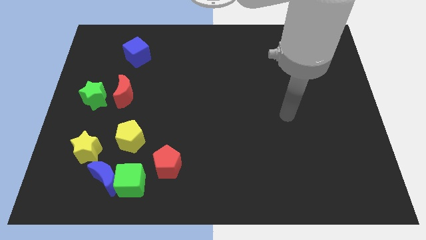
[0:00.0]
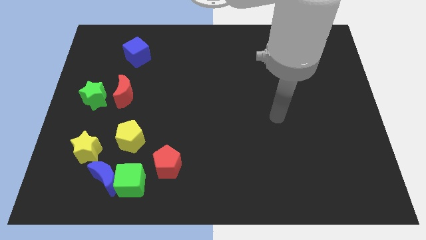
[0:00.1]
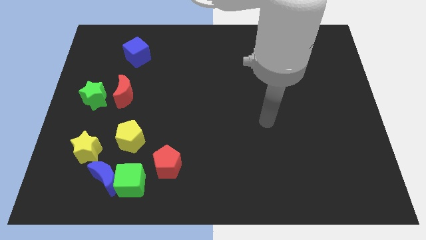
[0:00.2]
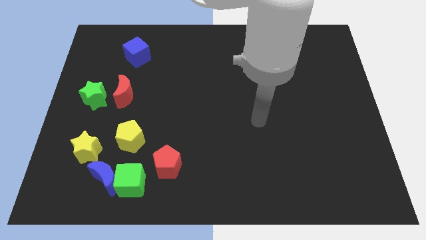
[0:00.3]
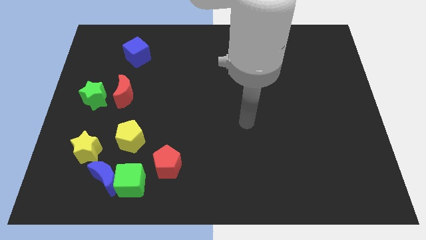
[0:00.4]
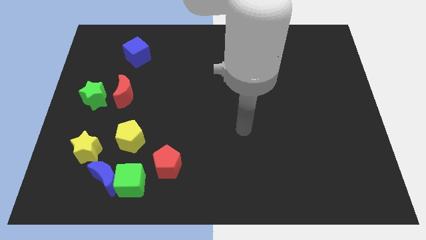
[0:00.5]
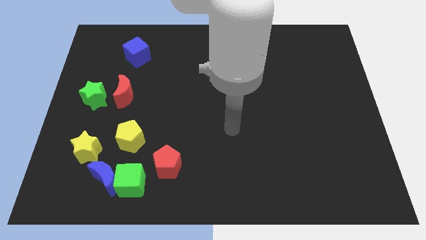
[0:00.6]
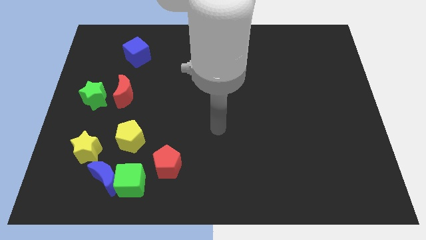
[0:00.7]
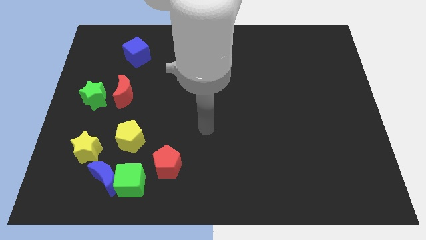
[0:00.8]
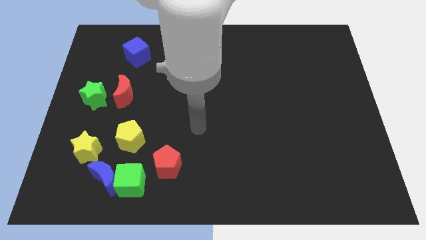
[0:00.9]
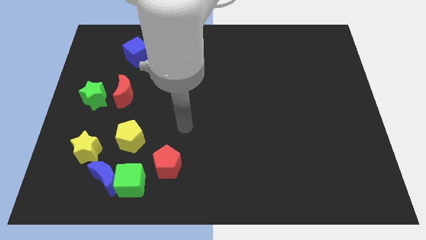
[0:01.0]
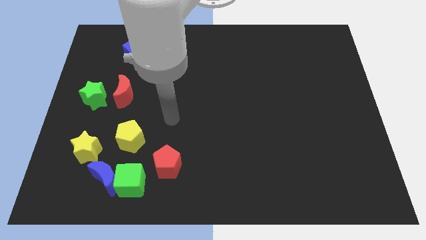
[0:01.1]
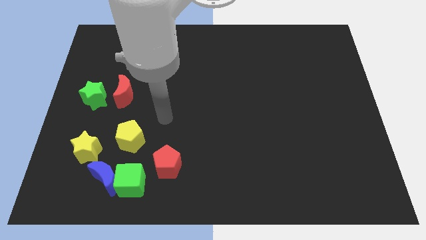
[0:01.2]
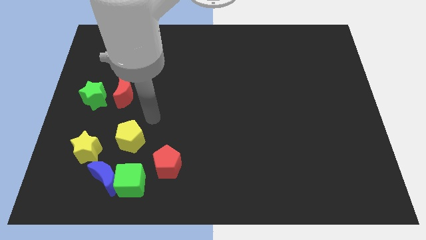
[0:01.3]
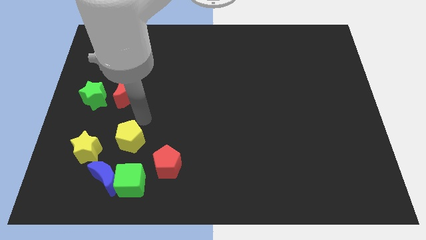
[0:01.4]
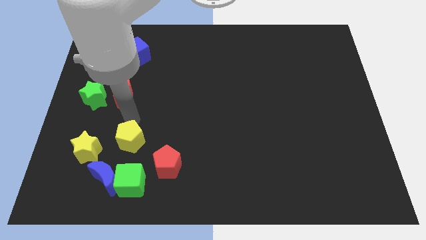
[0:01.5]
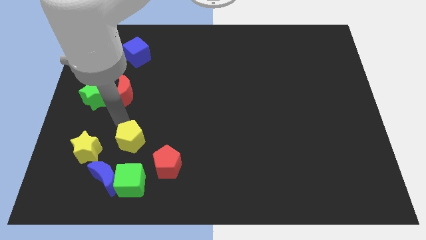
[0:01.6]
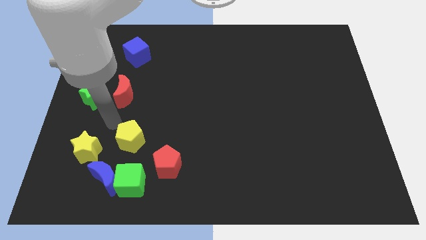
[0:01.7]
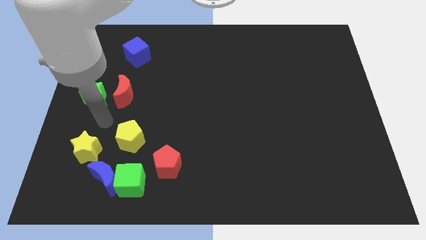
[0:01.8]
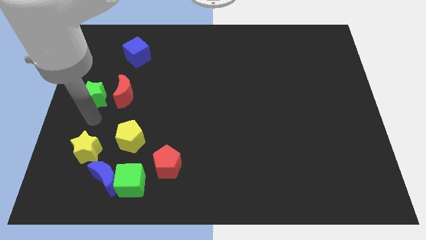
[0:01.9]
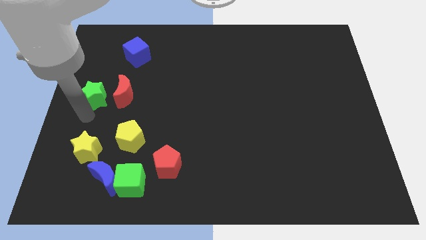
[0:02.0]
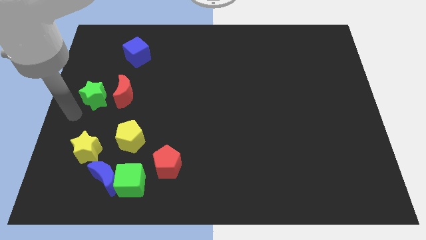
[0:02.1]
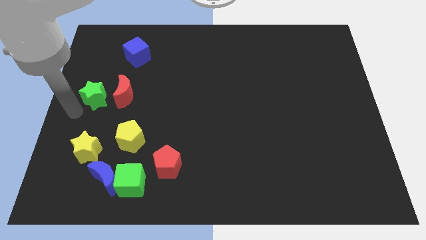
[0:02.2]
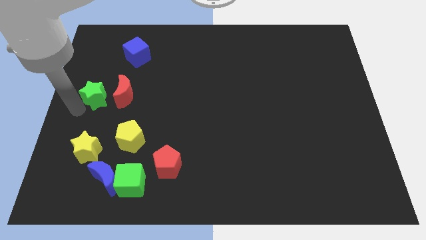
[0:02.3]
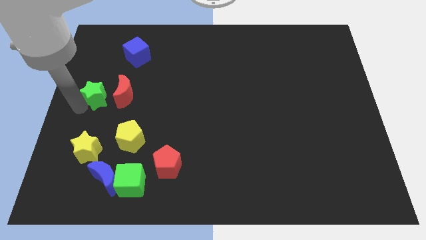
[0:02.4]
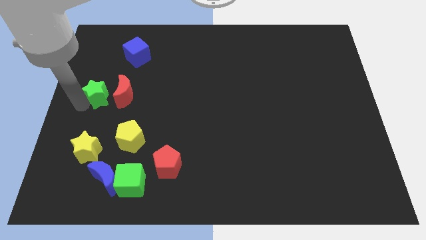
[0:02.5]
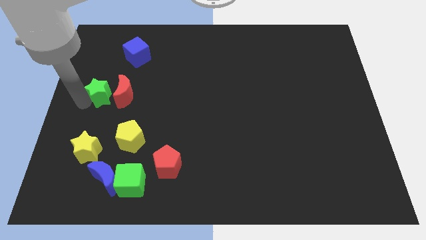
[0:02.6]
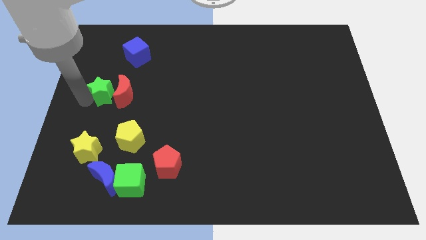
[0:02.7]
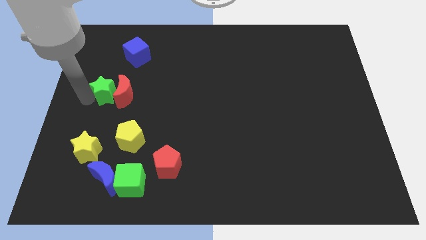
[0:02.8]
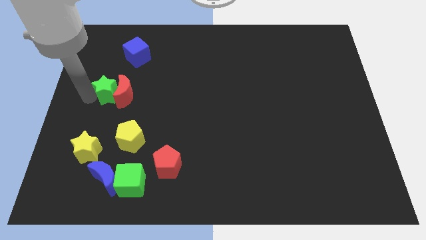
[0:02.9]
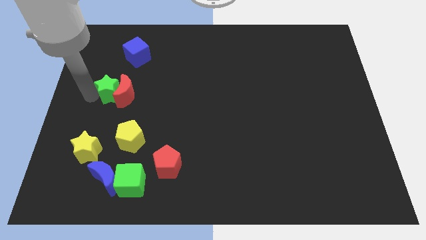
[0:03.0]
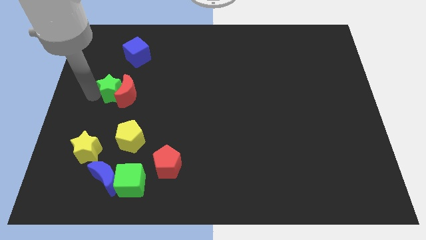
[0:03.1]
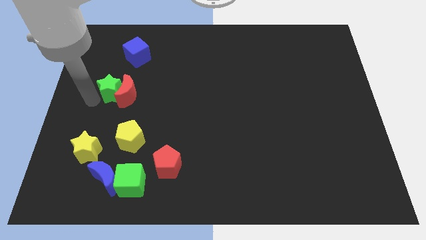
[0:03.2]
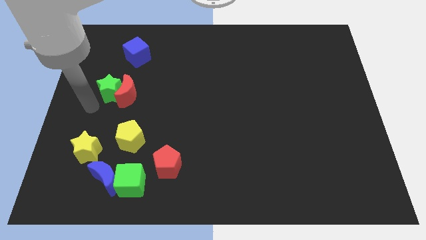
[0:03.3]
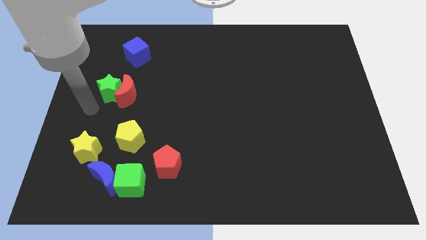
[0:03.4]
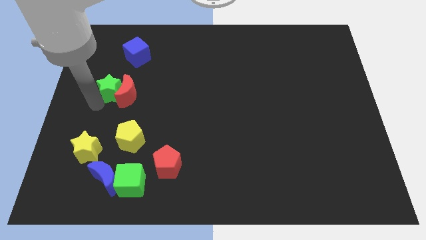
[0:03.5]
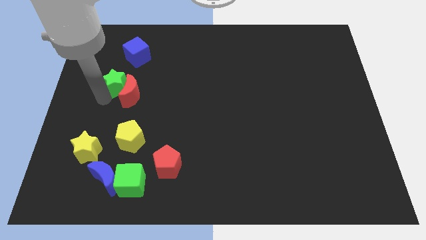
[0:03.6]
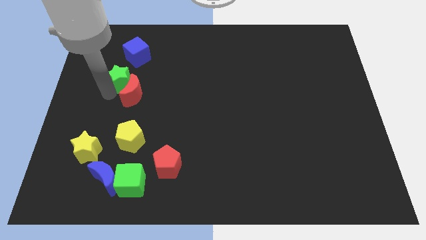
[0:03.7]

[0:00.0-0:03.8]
slightly move the green star upwards and to the right

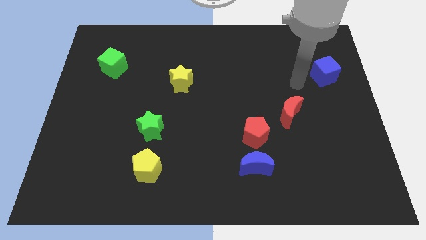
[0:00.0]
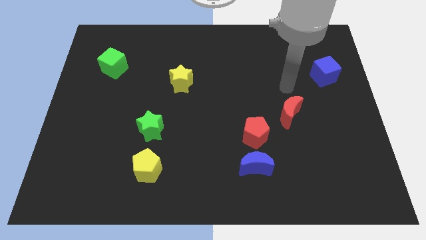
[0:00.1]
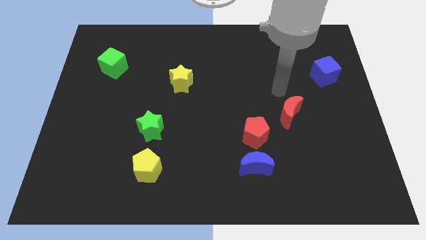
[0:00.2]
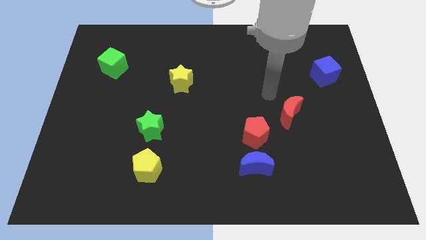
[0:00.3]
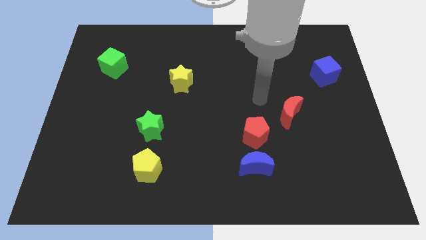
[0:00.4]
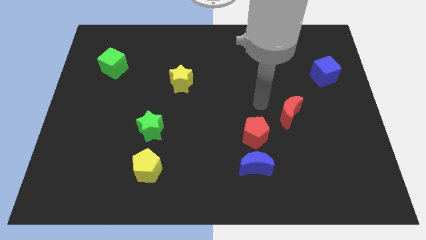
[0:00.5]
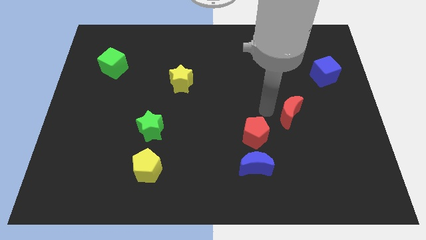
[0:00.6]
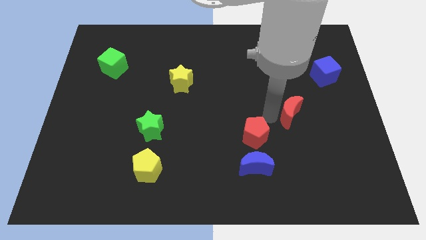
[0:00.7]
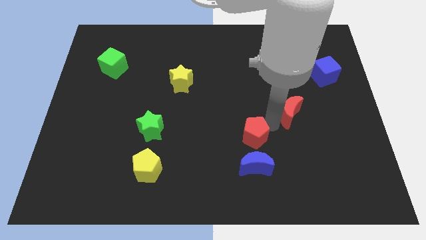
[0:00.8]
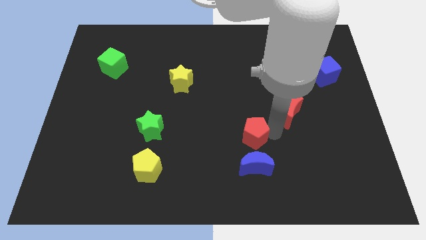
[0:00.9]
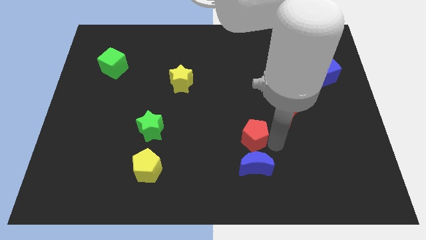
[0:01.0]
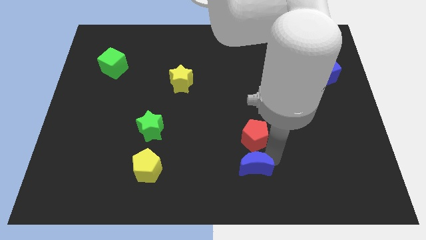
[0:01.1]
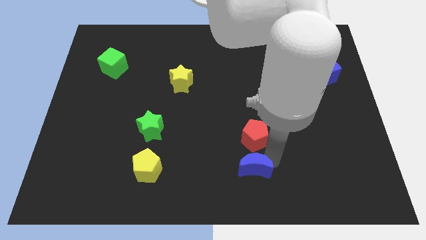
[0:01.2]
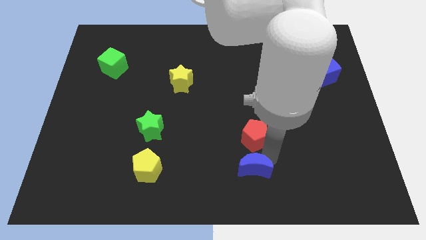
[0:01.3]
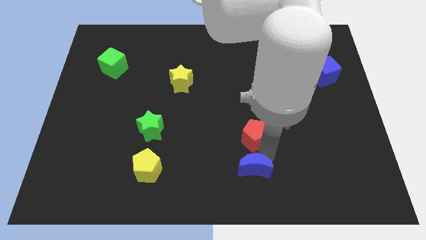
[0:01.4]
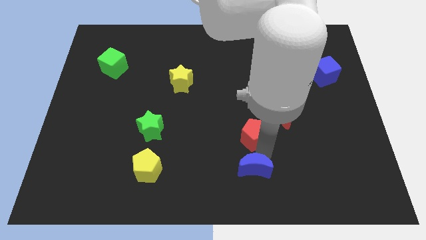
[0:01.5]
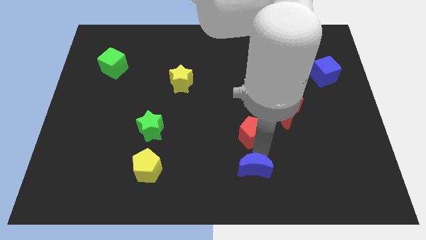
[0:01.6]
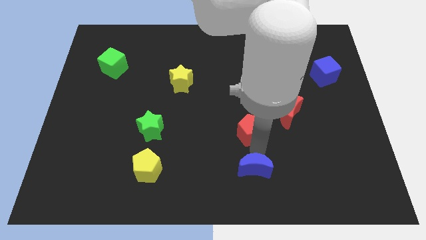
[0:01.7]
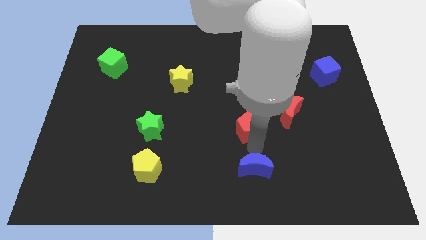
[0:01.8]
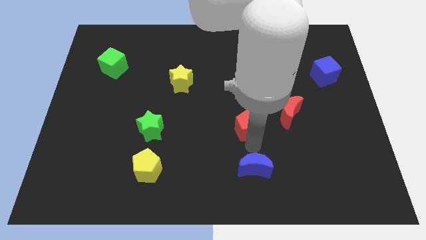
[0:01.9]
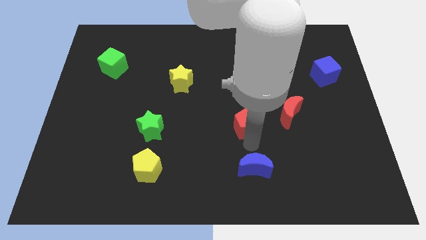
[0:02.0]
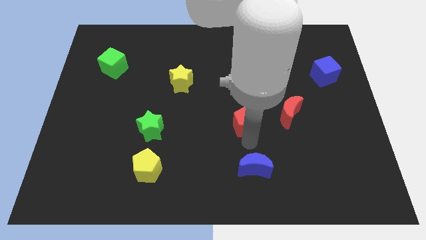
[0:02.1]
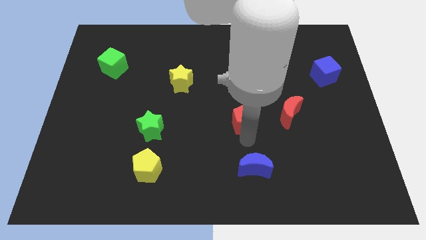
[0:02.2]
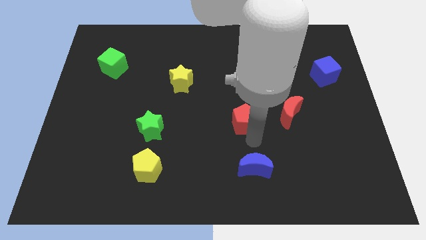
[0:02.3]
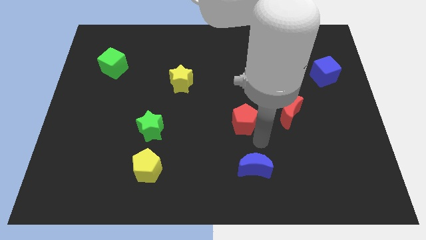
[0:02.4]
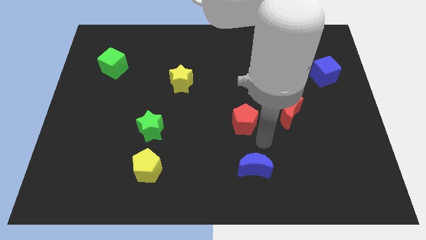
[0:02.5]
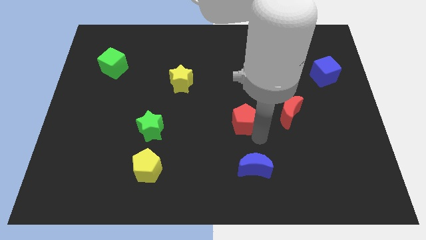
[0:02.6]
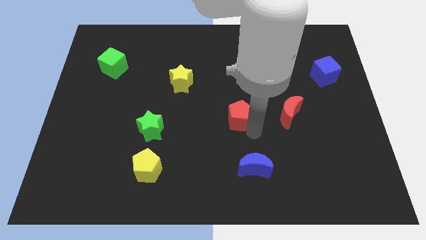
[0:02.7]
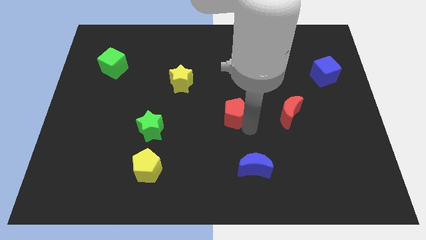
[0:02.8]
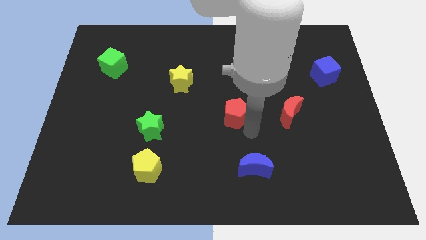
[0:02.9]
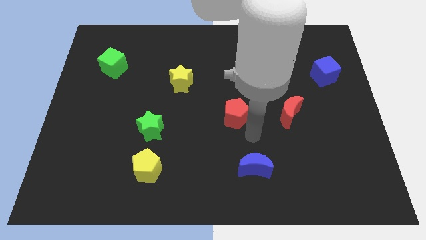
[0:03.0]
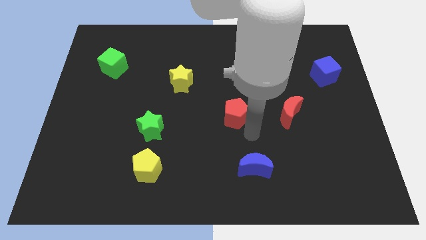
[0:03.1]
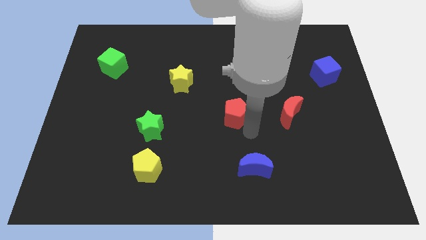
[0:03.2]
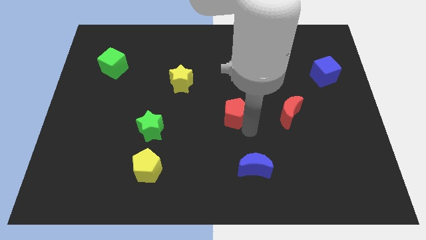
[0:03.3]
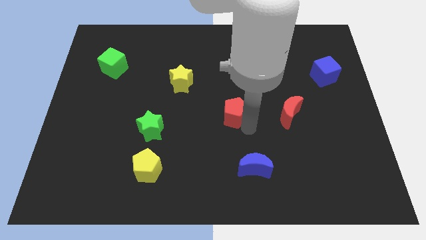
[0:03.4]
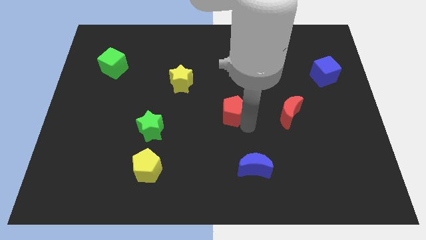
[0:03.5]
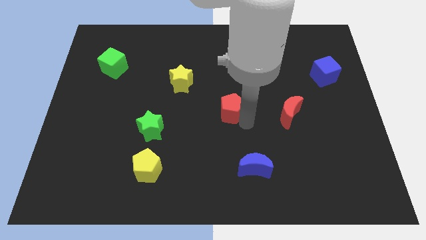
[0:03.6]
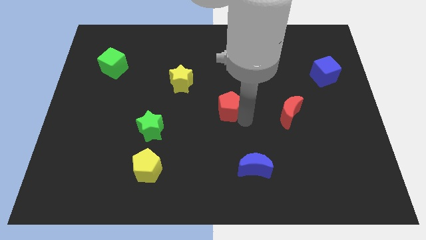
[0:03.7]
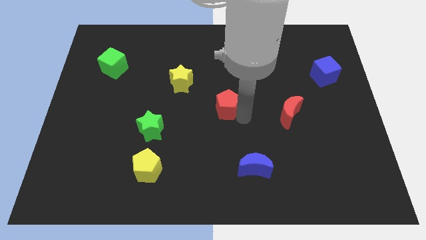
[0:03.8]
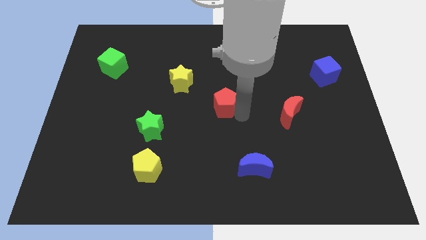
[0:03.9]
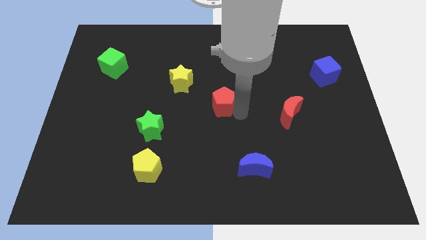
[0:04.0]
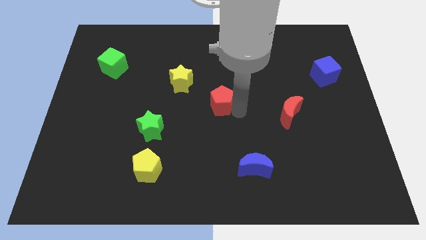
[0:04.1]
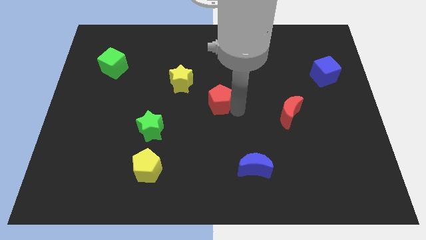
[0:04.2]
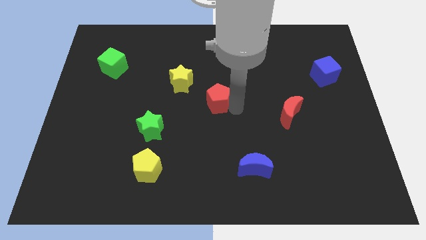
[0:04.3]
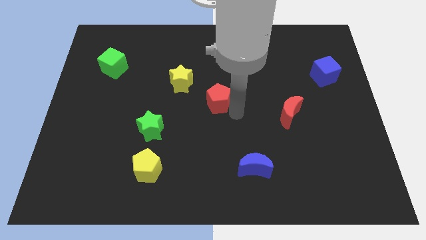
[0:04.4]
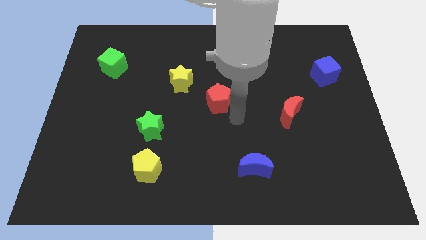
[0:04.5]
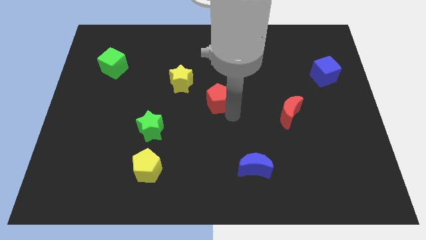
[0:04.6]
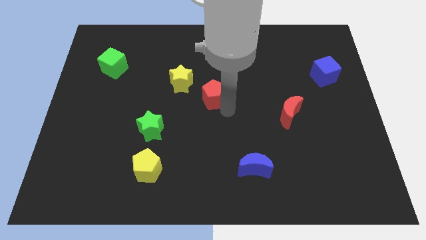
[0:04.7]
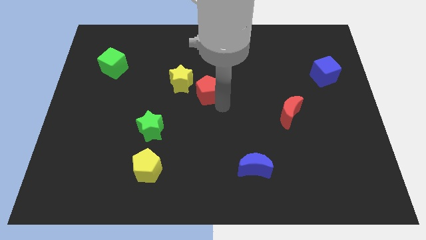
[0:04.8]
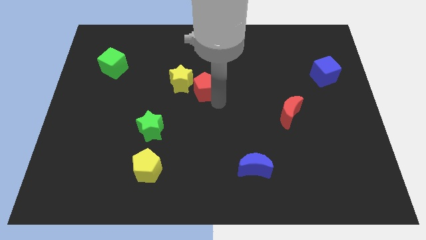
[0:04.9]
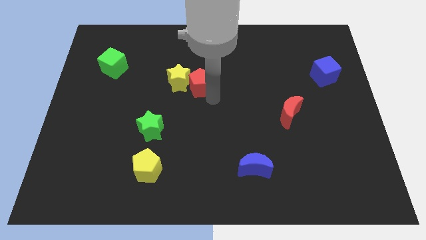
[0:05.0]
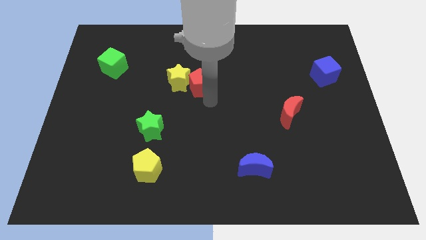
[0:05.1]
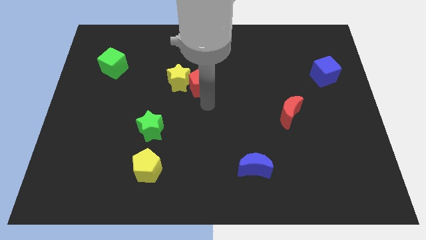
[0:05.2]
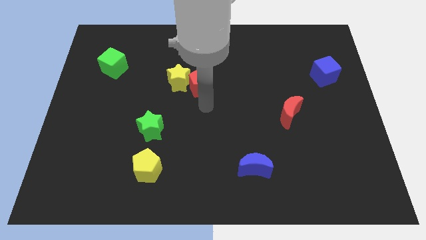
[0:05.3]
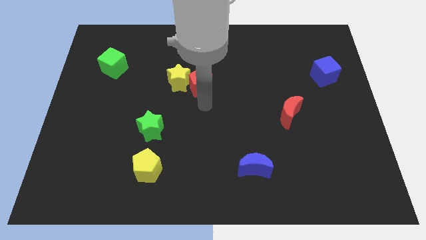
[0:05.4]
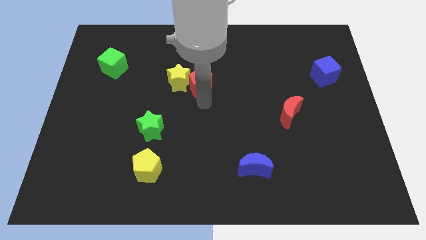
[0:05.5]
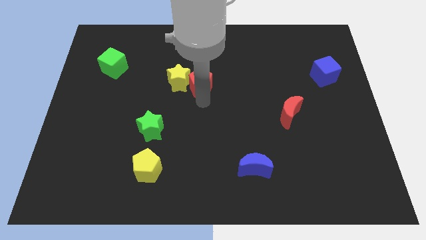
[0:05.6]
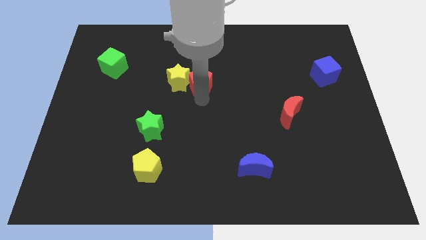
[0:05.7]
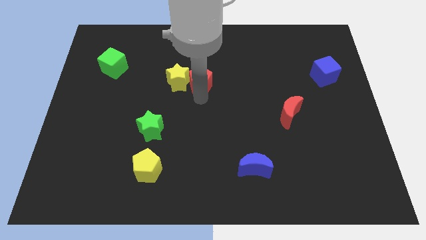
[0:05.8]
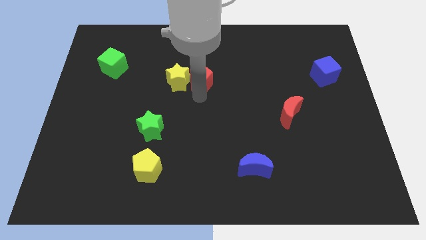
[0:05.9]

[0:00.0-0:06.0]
move the red pentagon upwards and left diagonally
